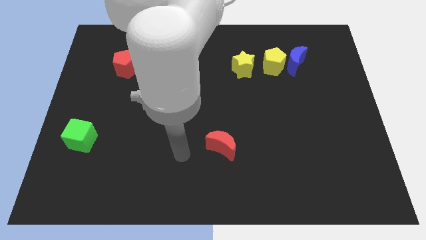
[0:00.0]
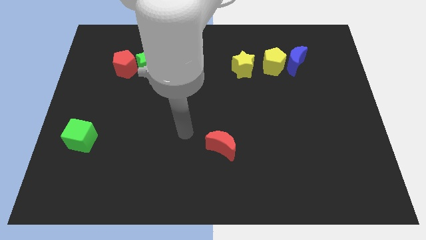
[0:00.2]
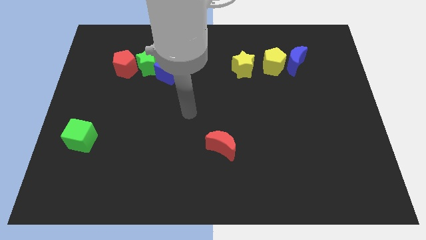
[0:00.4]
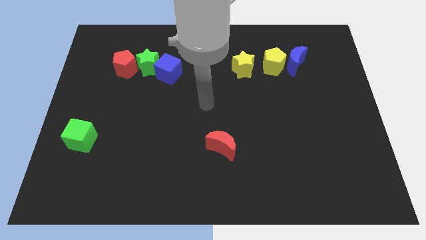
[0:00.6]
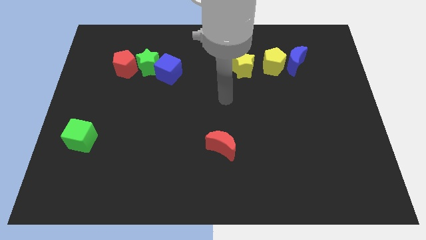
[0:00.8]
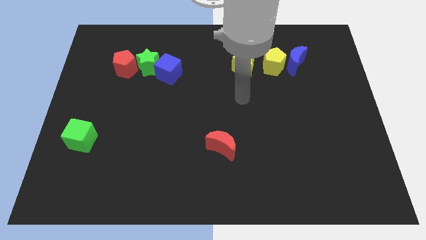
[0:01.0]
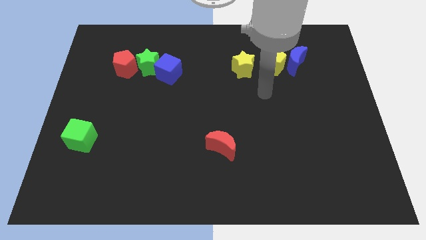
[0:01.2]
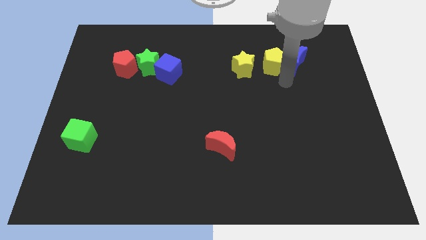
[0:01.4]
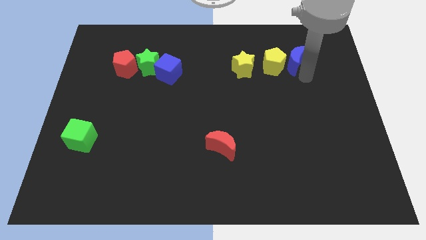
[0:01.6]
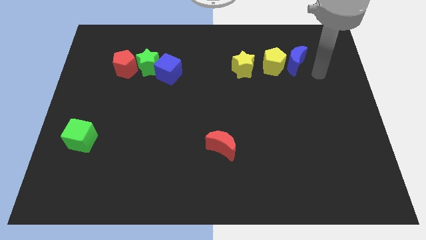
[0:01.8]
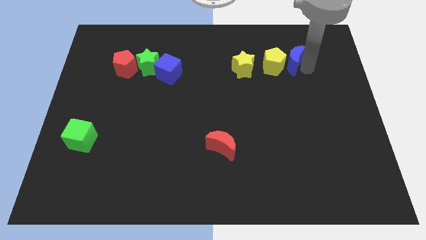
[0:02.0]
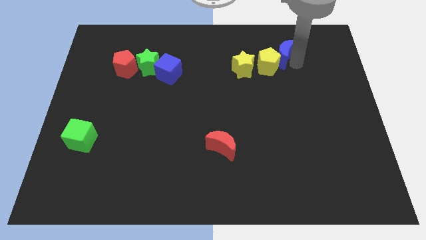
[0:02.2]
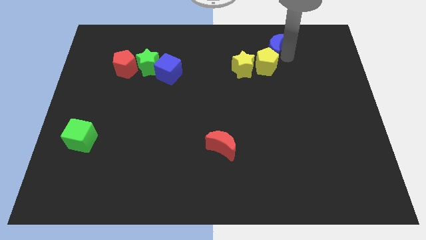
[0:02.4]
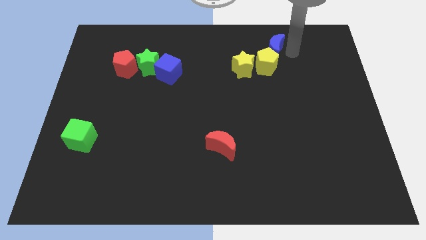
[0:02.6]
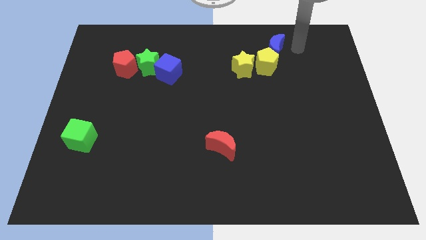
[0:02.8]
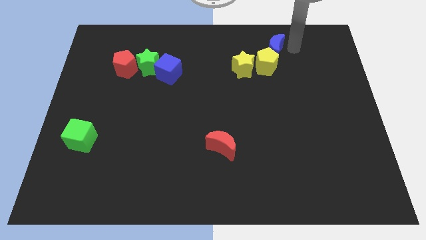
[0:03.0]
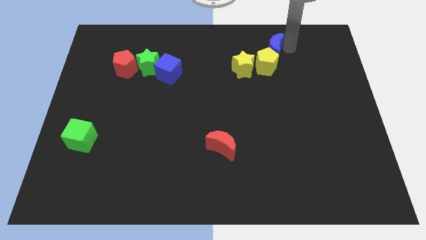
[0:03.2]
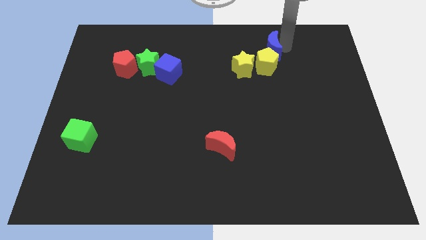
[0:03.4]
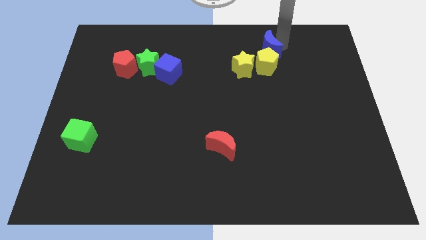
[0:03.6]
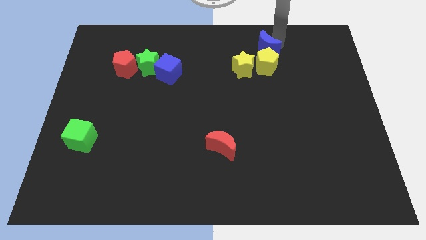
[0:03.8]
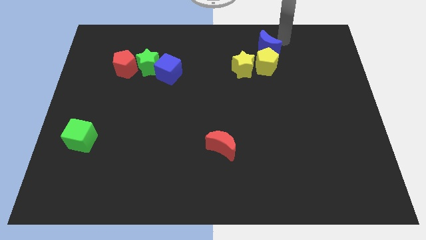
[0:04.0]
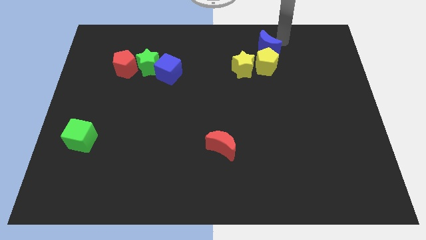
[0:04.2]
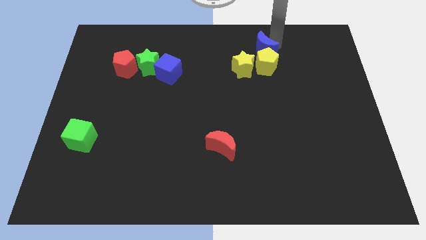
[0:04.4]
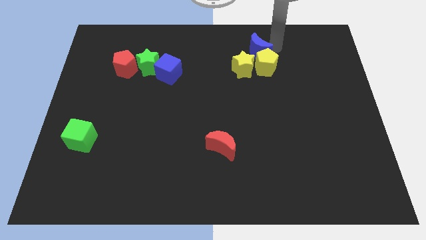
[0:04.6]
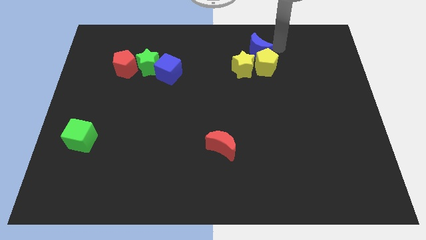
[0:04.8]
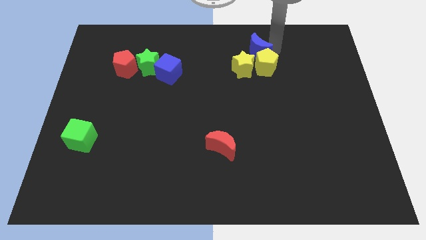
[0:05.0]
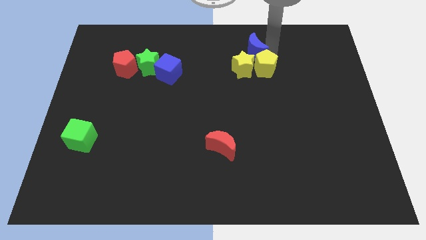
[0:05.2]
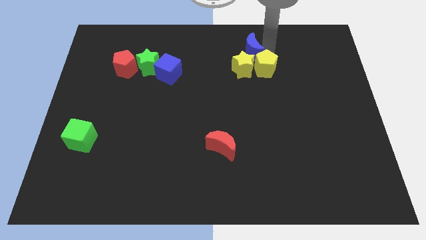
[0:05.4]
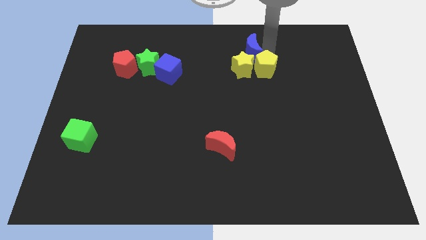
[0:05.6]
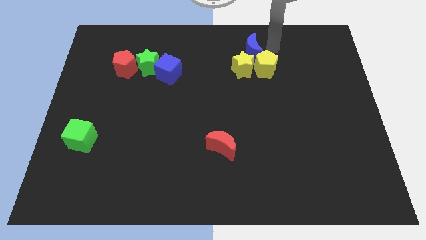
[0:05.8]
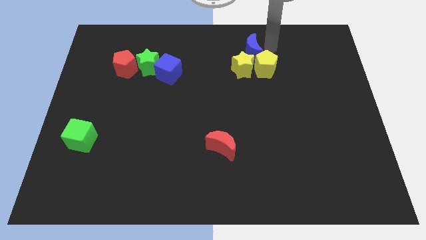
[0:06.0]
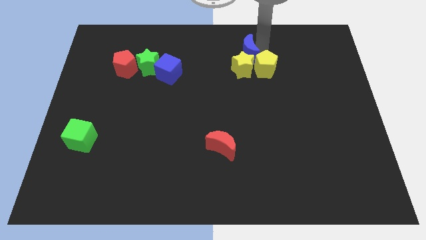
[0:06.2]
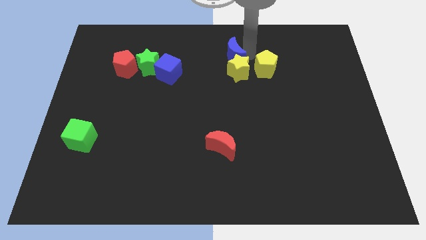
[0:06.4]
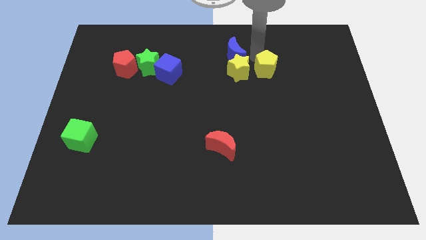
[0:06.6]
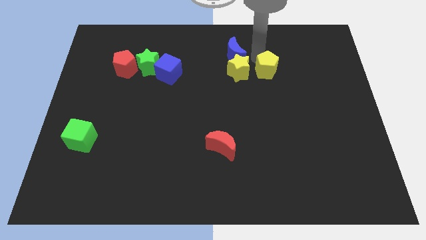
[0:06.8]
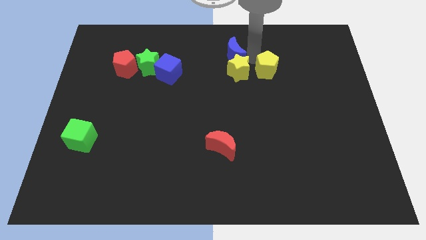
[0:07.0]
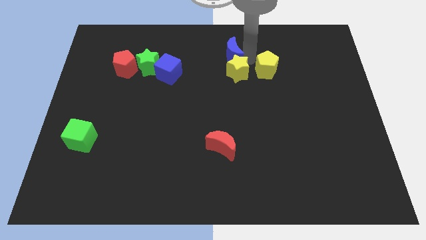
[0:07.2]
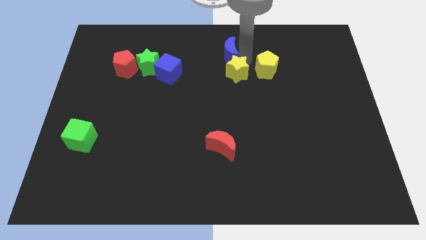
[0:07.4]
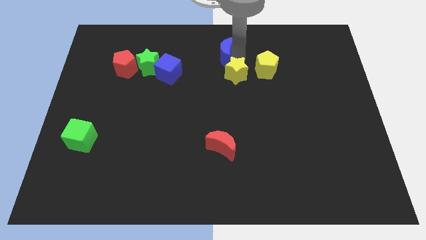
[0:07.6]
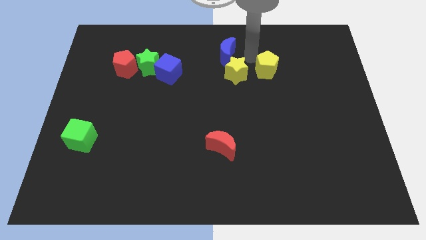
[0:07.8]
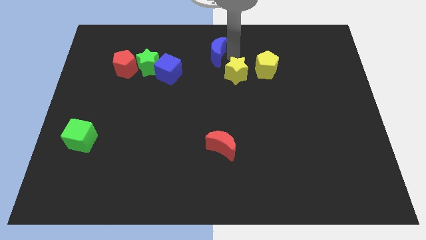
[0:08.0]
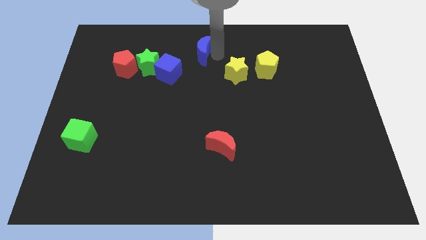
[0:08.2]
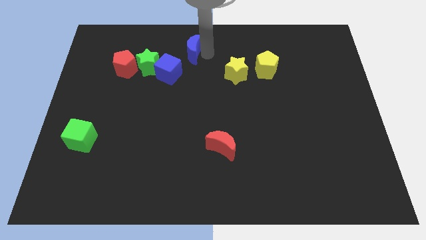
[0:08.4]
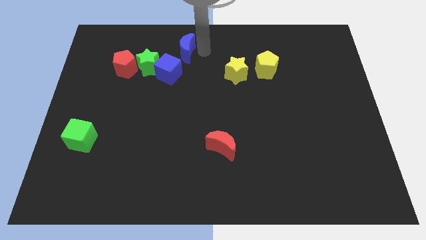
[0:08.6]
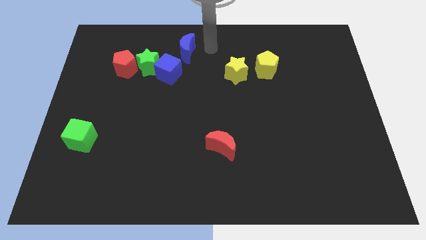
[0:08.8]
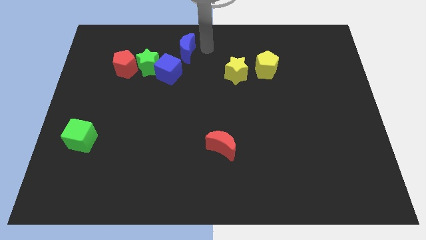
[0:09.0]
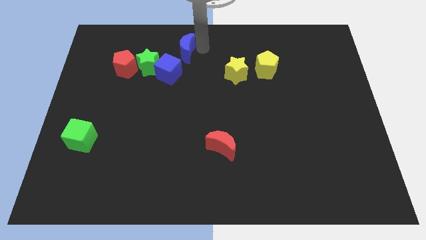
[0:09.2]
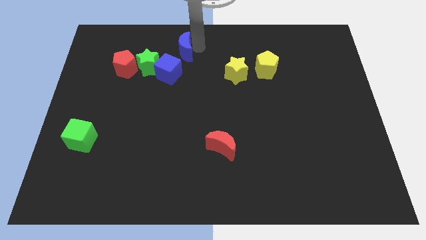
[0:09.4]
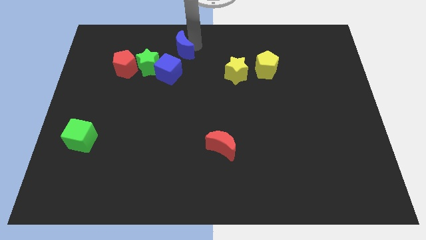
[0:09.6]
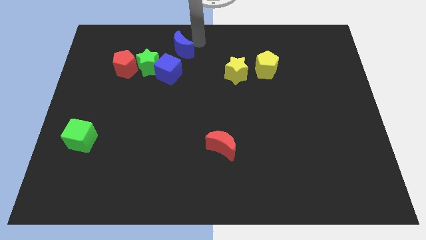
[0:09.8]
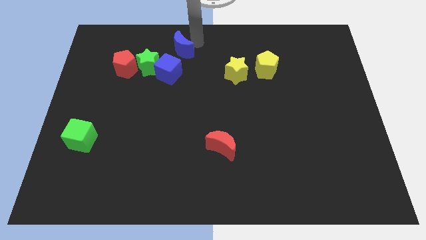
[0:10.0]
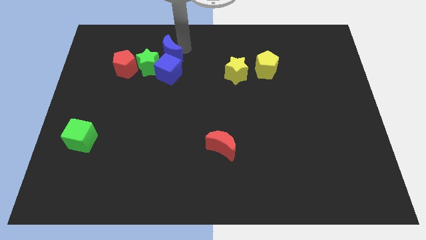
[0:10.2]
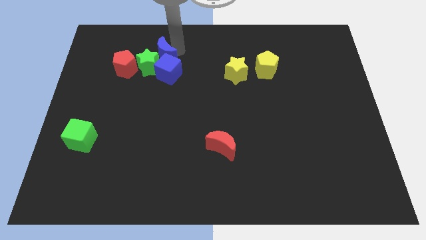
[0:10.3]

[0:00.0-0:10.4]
push the blue moon to the green star

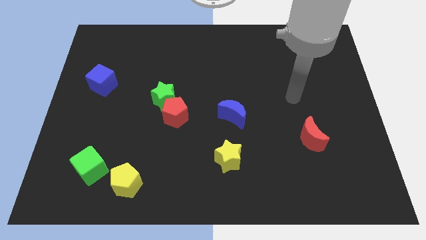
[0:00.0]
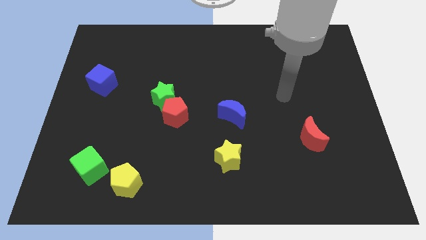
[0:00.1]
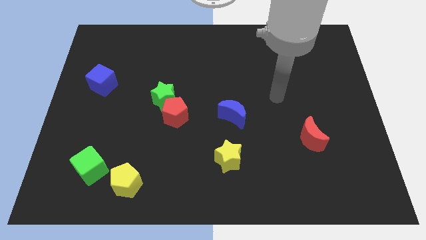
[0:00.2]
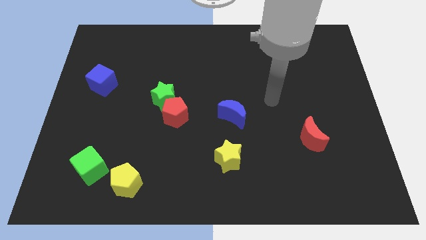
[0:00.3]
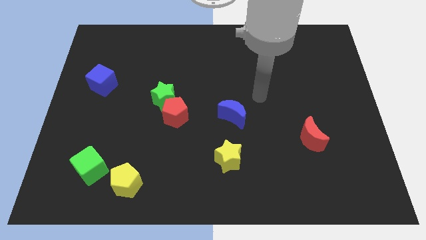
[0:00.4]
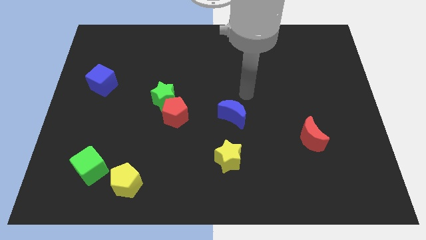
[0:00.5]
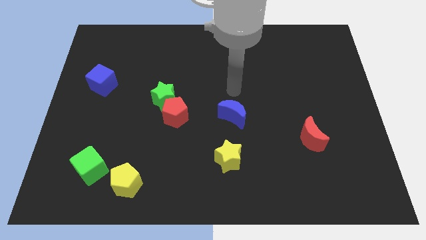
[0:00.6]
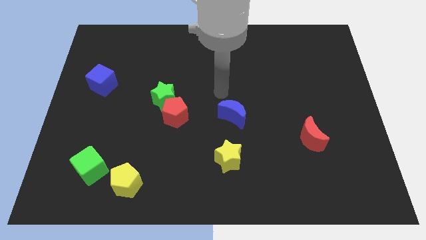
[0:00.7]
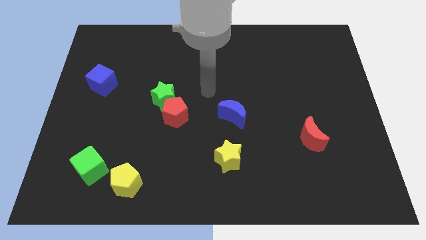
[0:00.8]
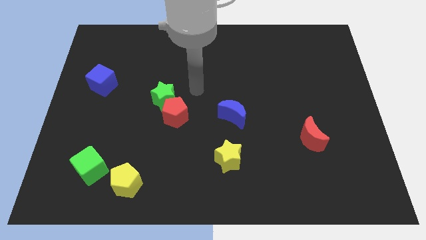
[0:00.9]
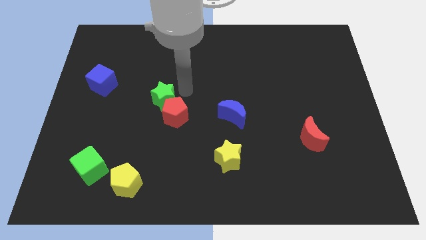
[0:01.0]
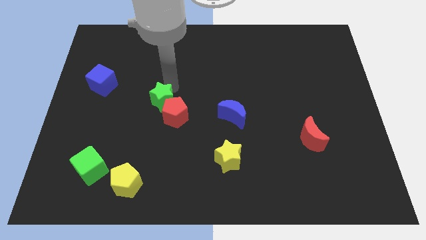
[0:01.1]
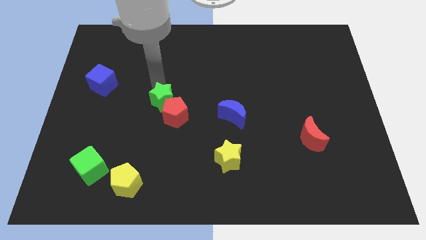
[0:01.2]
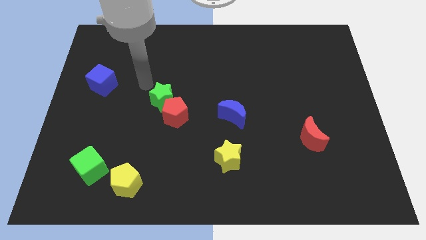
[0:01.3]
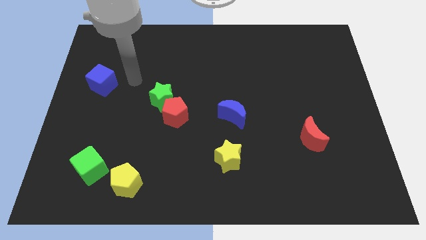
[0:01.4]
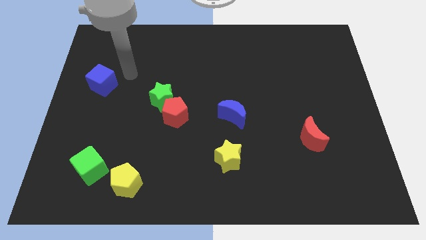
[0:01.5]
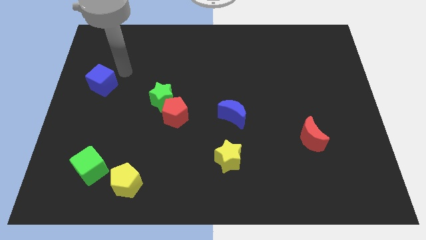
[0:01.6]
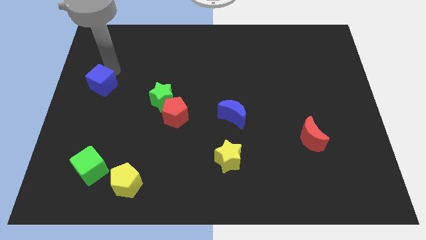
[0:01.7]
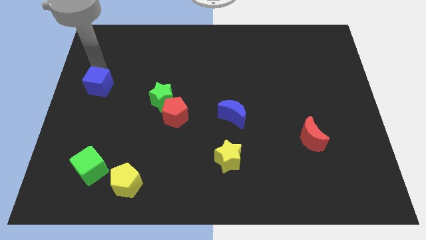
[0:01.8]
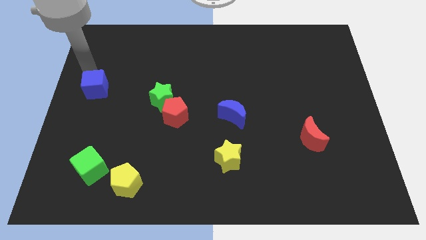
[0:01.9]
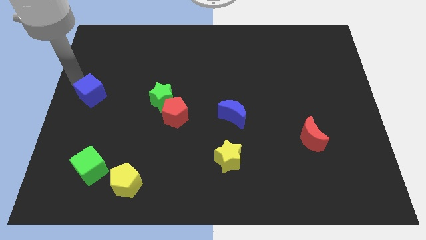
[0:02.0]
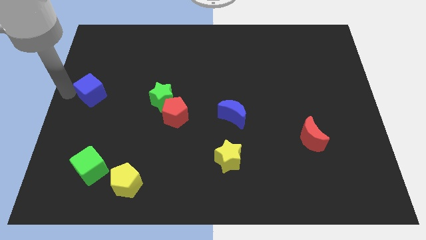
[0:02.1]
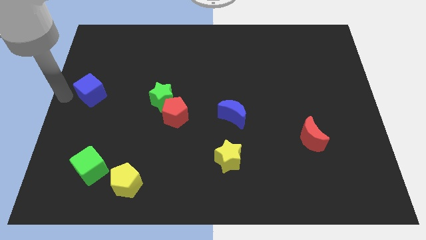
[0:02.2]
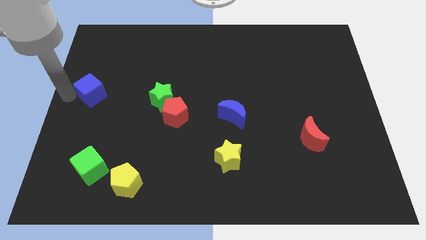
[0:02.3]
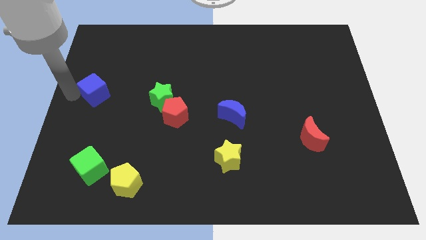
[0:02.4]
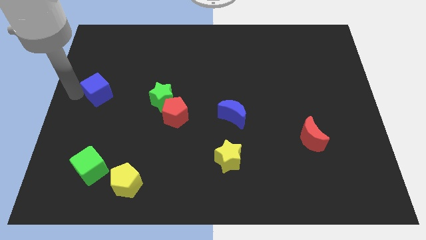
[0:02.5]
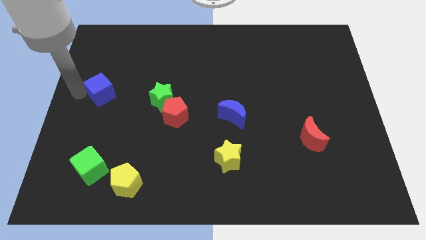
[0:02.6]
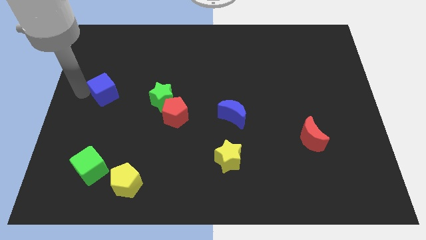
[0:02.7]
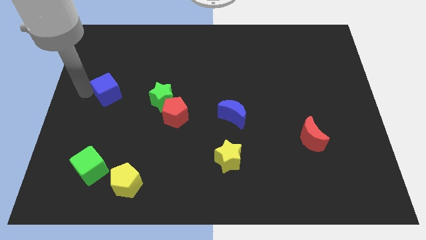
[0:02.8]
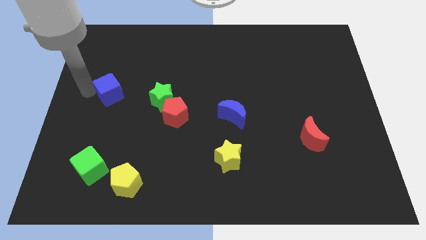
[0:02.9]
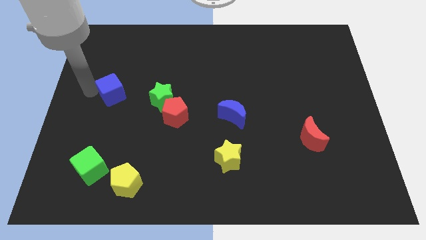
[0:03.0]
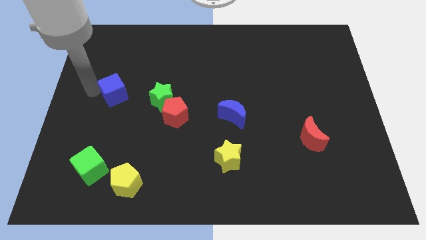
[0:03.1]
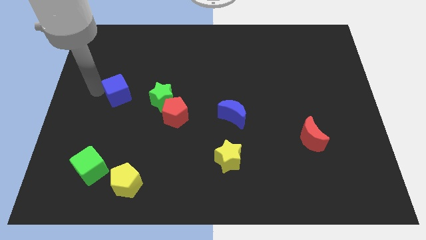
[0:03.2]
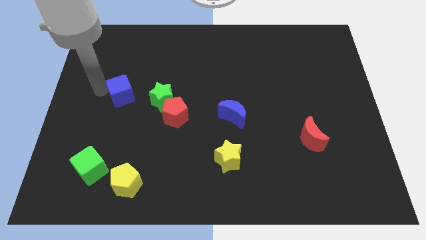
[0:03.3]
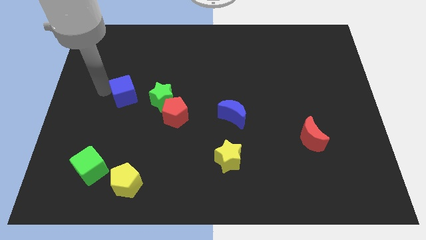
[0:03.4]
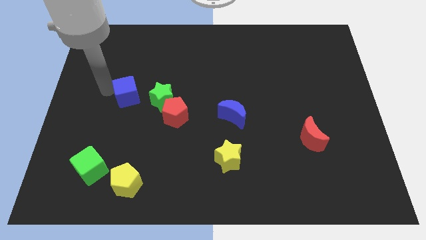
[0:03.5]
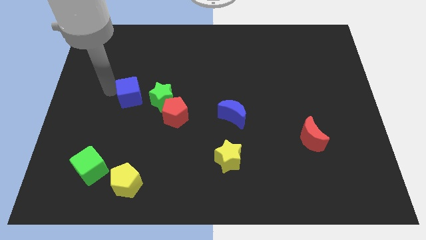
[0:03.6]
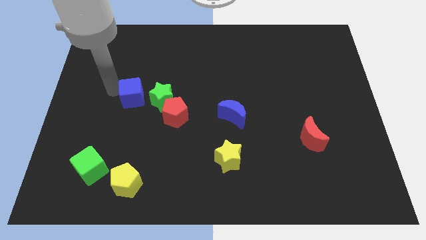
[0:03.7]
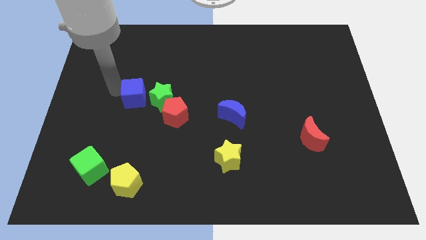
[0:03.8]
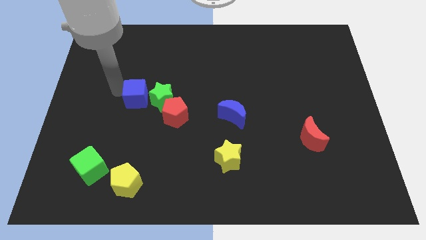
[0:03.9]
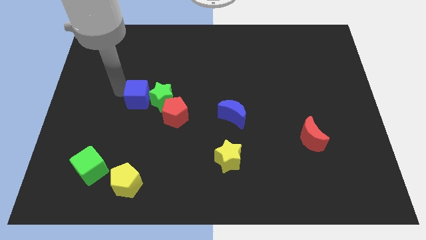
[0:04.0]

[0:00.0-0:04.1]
put the blue cube close to the green star
